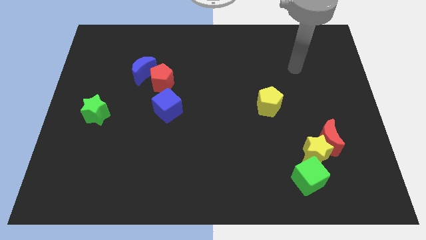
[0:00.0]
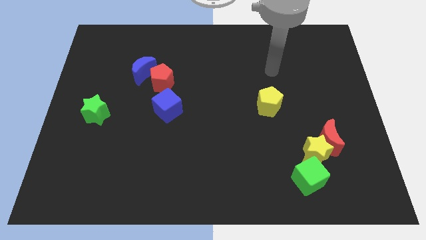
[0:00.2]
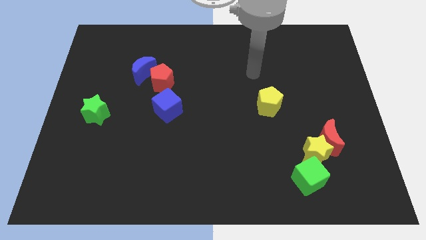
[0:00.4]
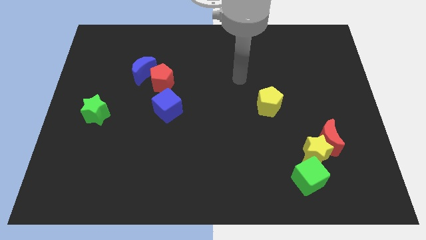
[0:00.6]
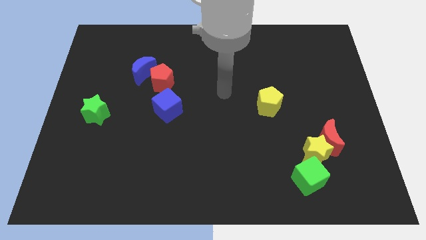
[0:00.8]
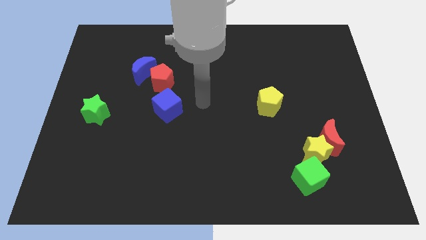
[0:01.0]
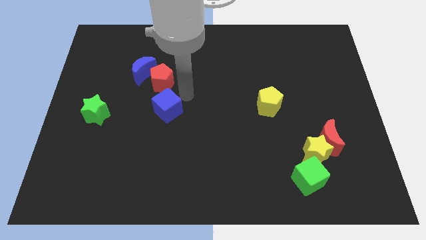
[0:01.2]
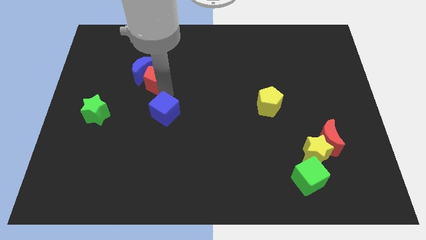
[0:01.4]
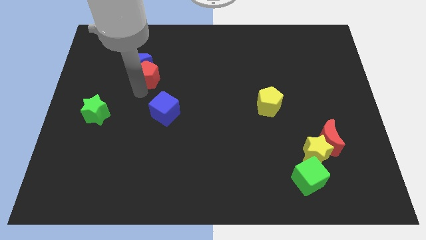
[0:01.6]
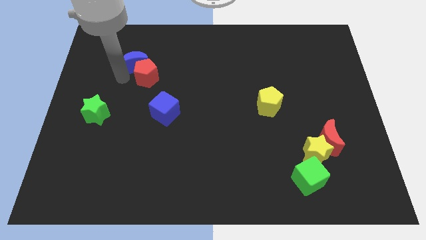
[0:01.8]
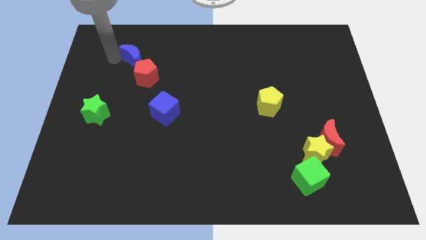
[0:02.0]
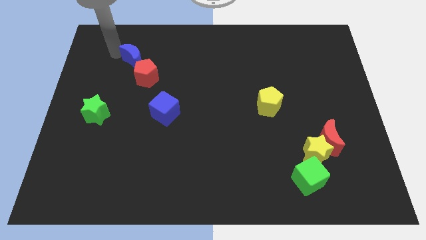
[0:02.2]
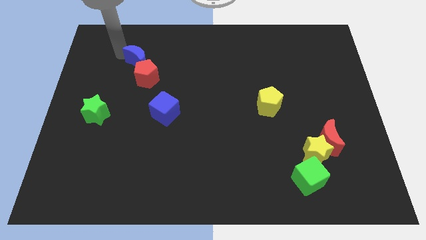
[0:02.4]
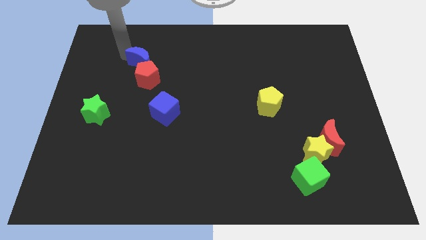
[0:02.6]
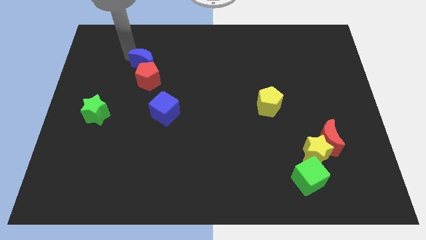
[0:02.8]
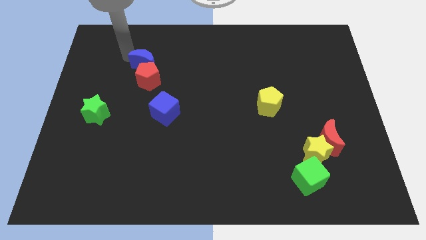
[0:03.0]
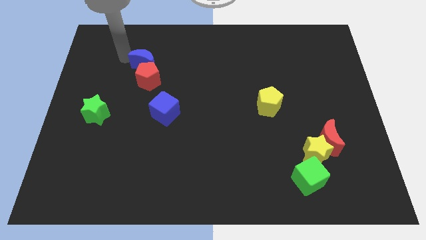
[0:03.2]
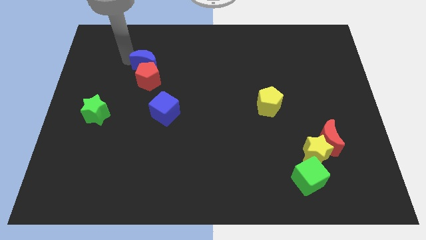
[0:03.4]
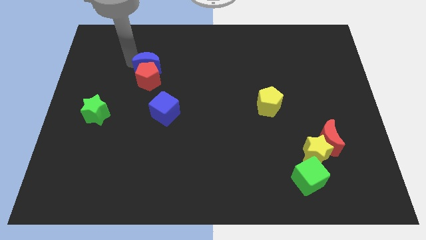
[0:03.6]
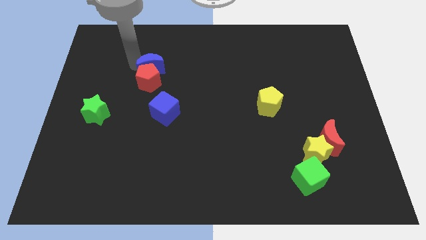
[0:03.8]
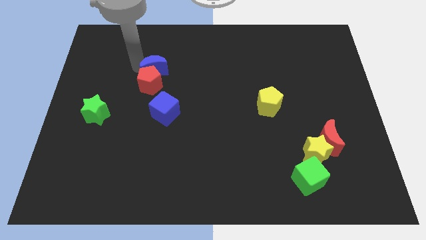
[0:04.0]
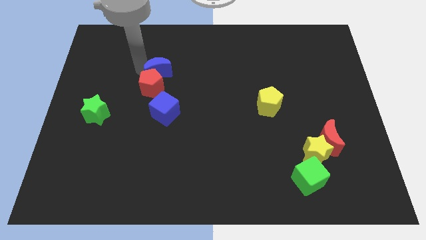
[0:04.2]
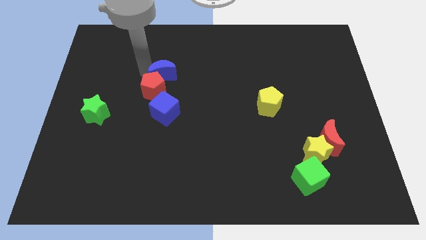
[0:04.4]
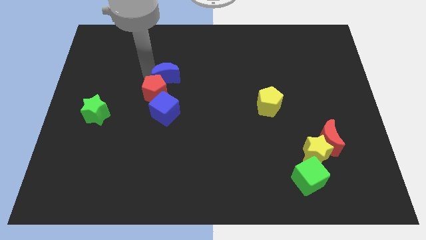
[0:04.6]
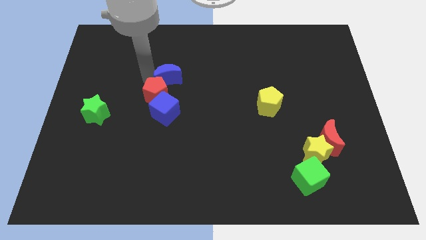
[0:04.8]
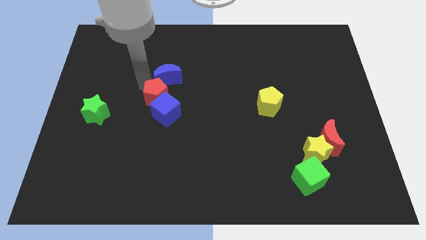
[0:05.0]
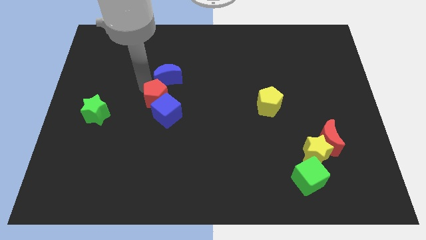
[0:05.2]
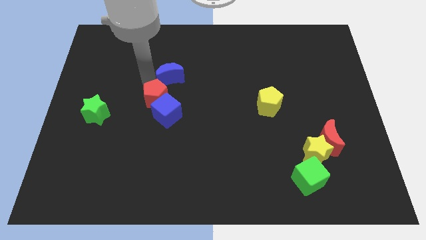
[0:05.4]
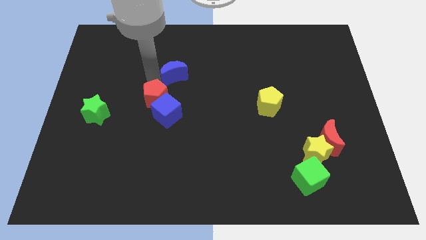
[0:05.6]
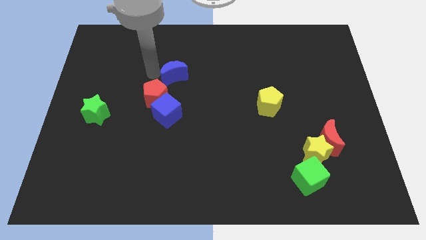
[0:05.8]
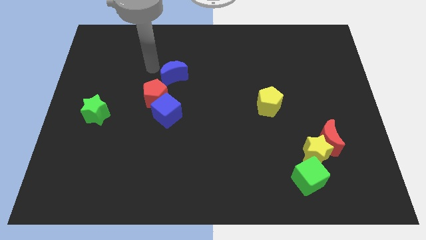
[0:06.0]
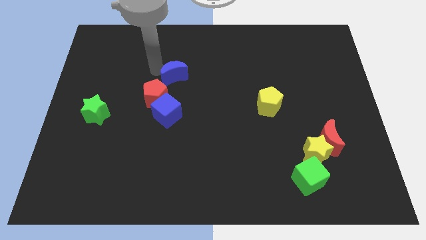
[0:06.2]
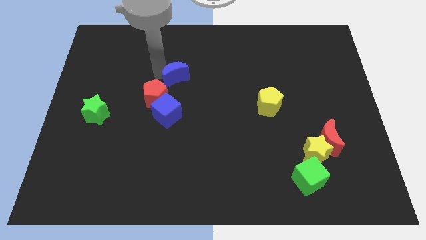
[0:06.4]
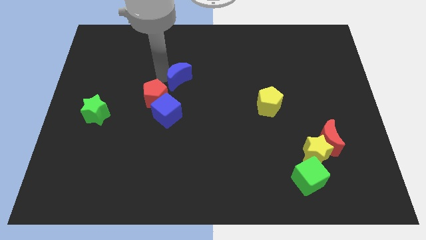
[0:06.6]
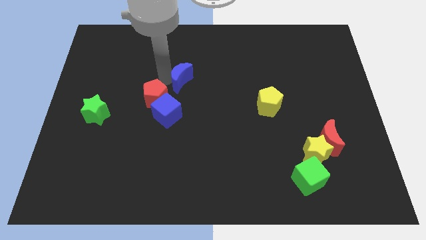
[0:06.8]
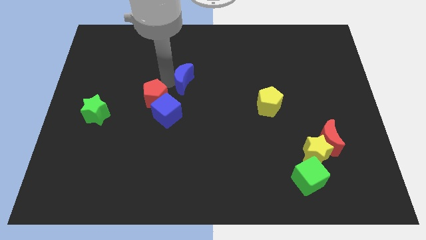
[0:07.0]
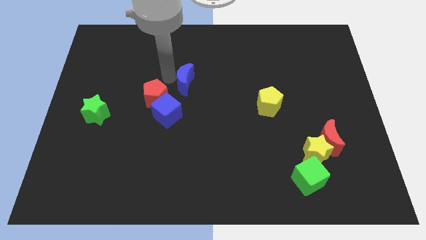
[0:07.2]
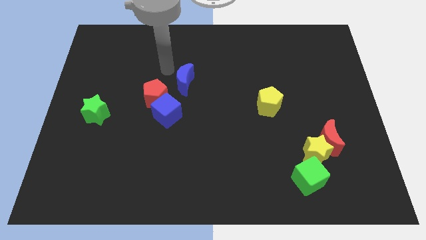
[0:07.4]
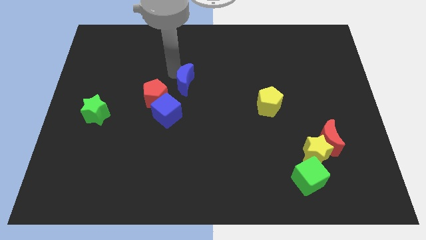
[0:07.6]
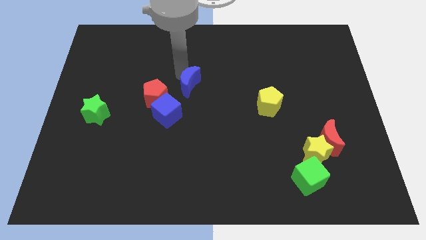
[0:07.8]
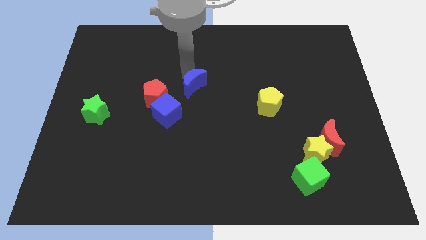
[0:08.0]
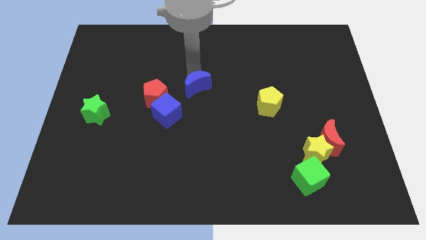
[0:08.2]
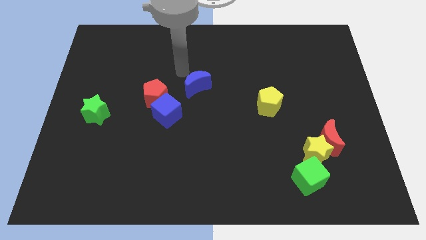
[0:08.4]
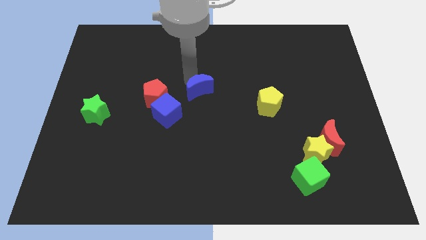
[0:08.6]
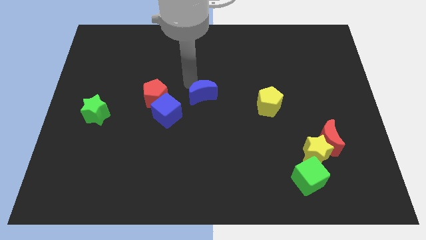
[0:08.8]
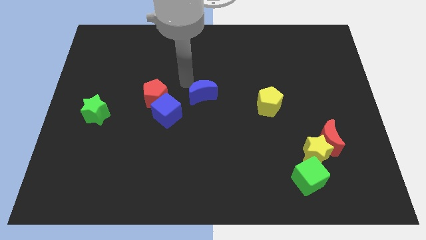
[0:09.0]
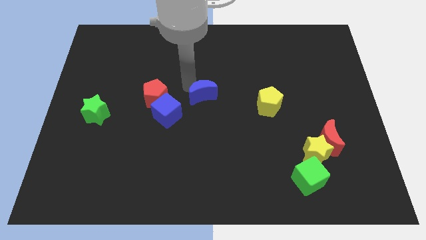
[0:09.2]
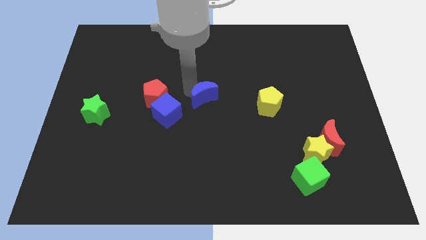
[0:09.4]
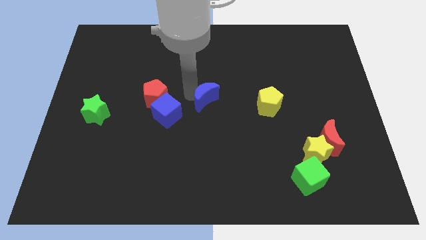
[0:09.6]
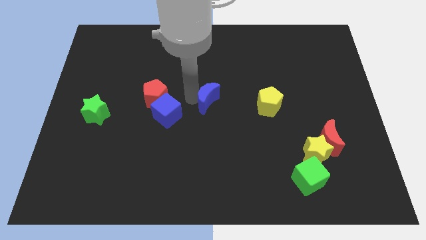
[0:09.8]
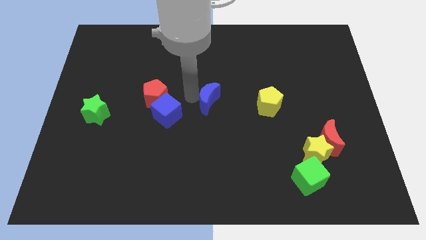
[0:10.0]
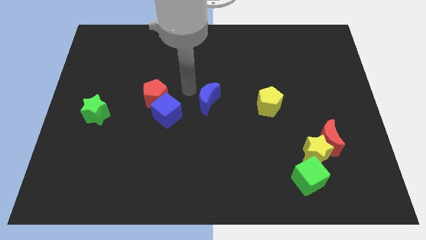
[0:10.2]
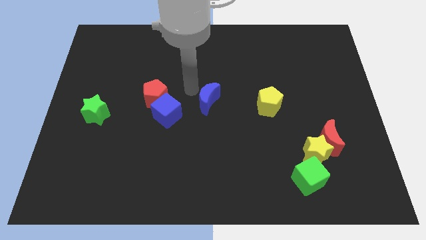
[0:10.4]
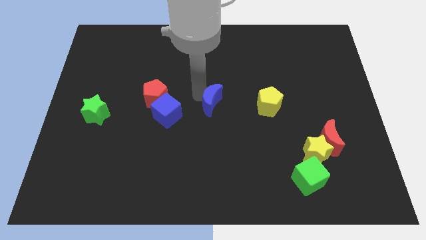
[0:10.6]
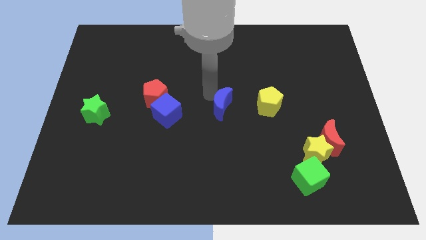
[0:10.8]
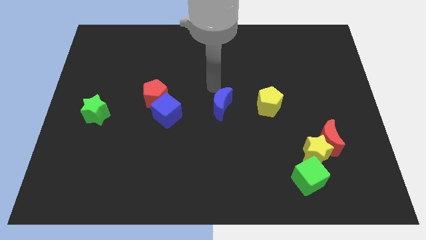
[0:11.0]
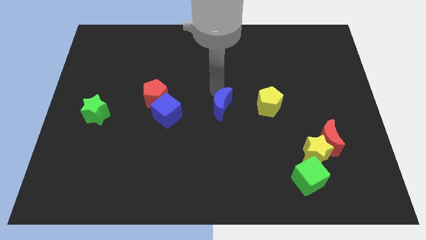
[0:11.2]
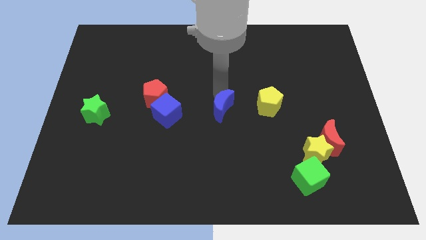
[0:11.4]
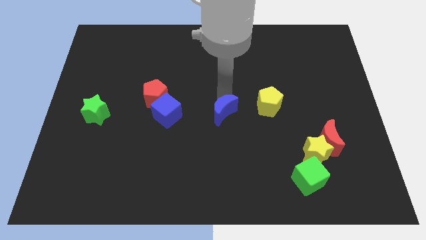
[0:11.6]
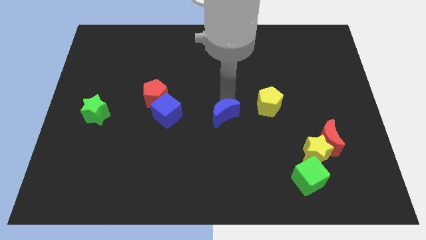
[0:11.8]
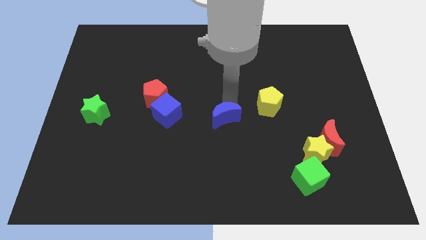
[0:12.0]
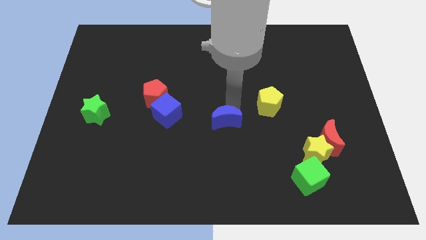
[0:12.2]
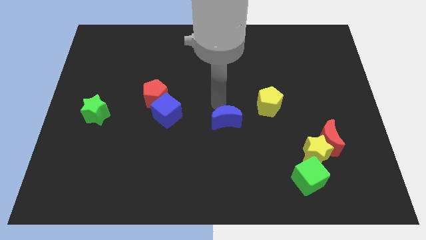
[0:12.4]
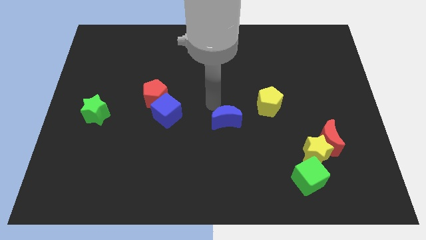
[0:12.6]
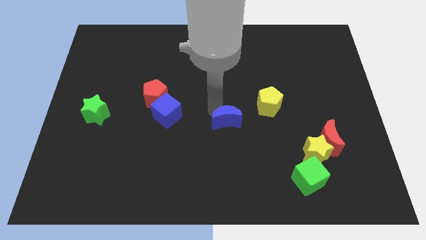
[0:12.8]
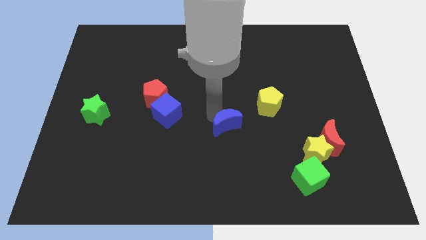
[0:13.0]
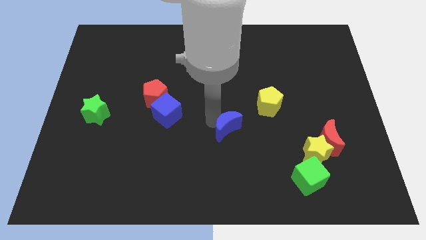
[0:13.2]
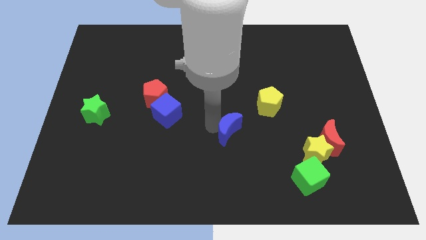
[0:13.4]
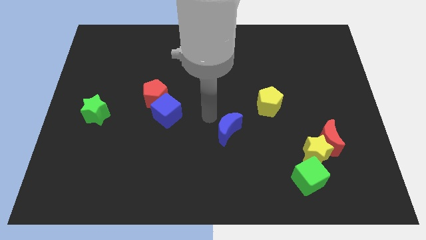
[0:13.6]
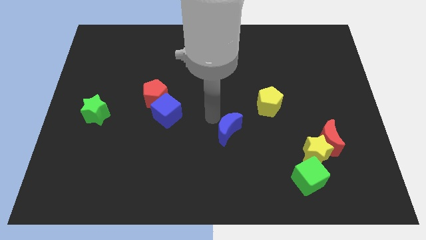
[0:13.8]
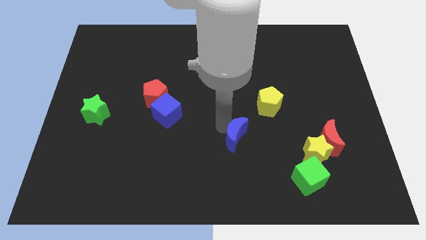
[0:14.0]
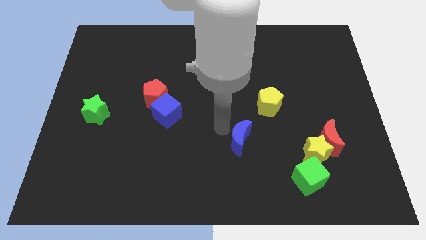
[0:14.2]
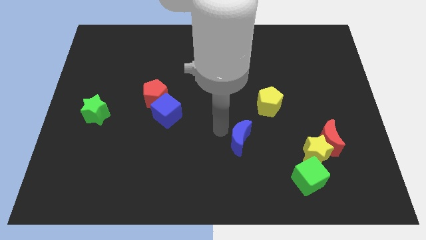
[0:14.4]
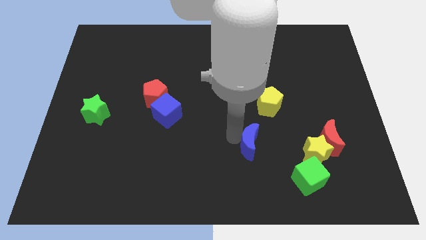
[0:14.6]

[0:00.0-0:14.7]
move the blue moon to the left side of the yellow star
